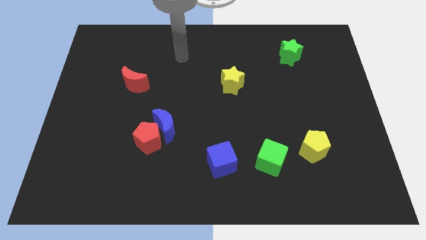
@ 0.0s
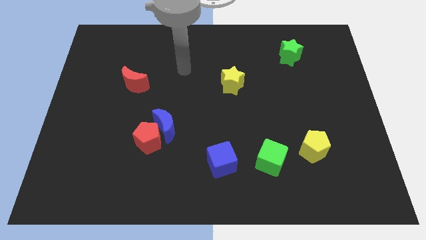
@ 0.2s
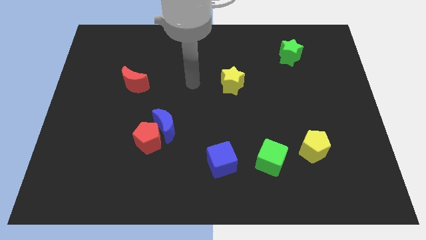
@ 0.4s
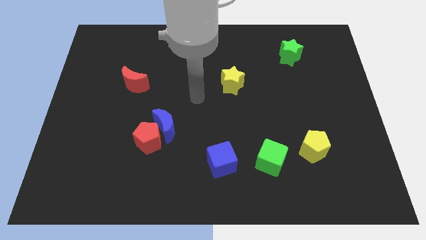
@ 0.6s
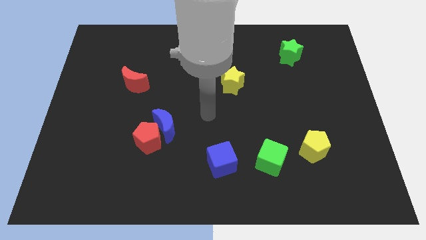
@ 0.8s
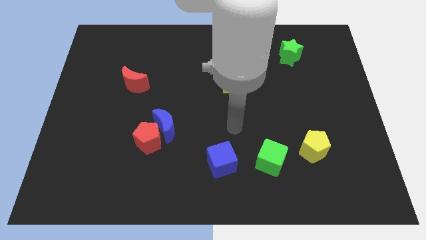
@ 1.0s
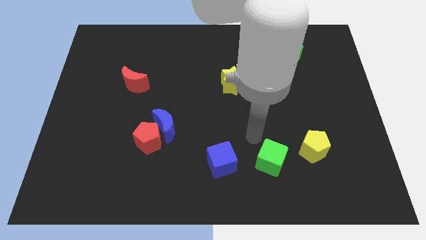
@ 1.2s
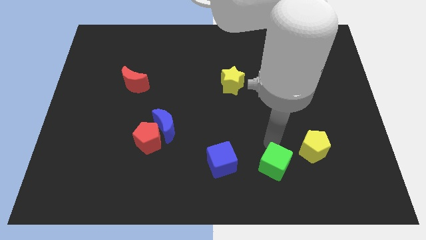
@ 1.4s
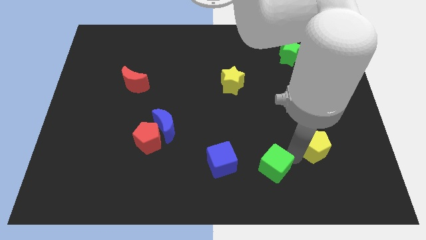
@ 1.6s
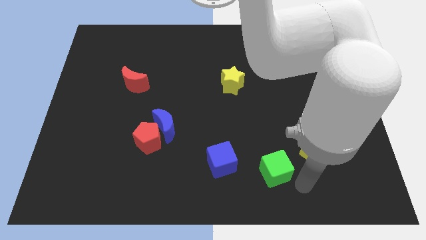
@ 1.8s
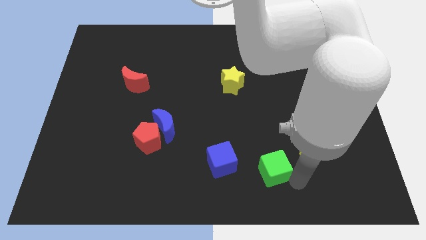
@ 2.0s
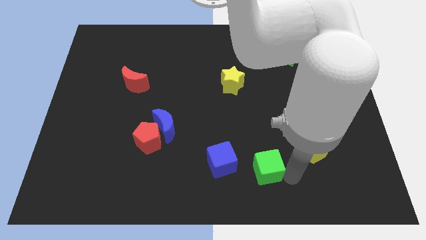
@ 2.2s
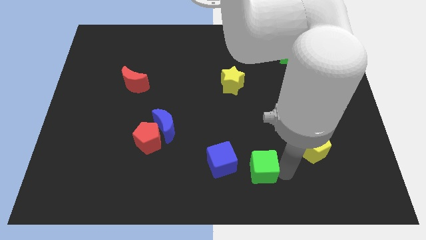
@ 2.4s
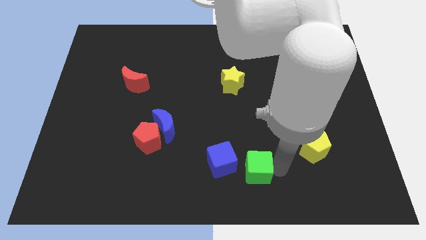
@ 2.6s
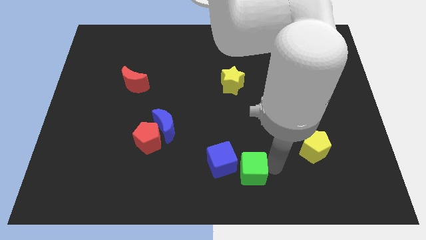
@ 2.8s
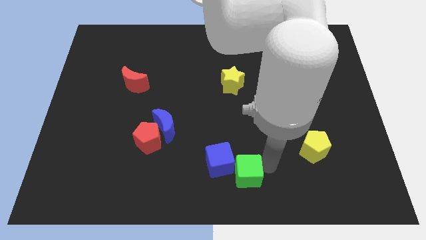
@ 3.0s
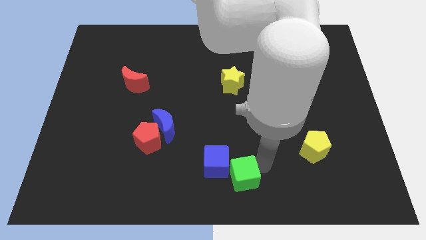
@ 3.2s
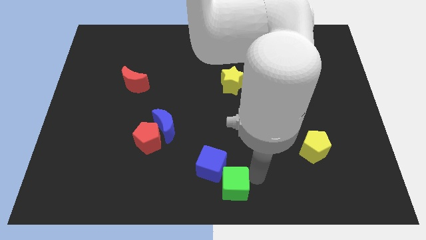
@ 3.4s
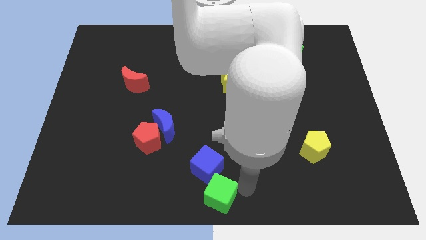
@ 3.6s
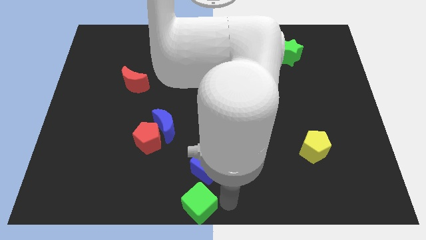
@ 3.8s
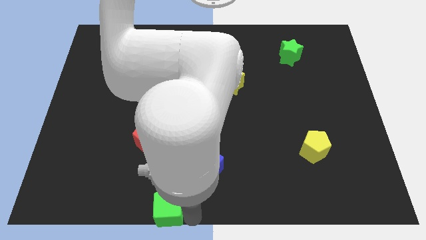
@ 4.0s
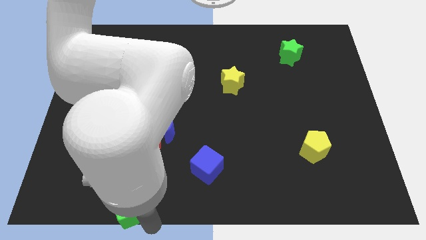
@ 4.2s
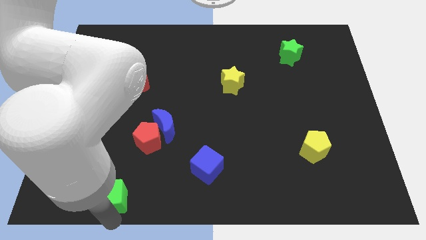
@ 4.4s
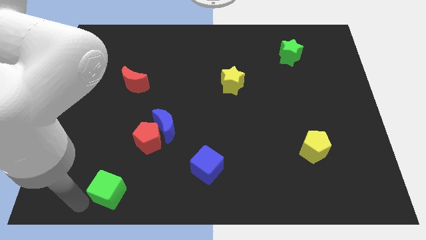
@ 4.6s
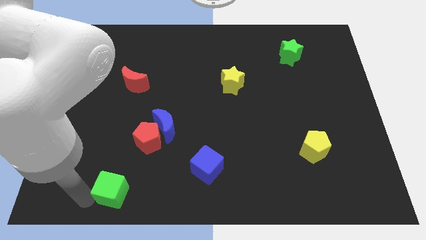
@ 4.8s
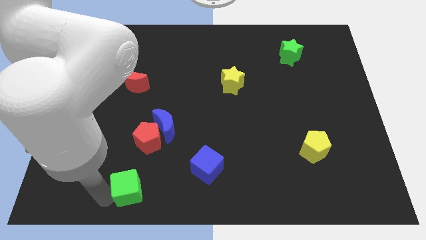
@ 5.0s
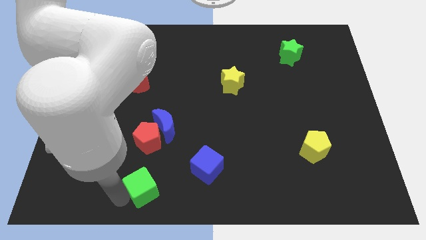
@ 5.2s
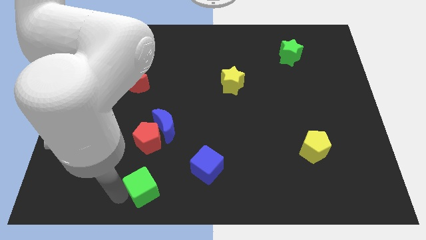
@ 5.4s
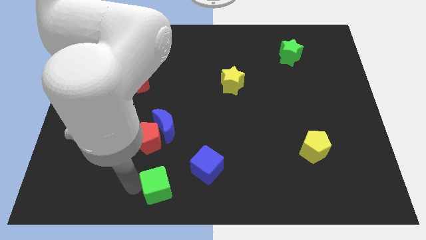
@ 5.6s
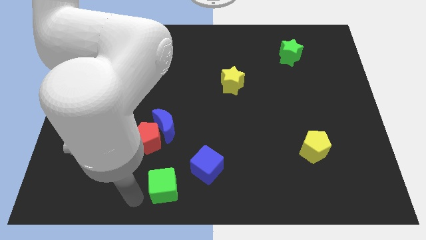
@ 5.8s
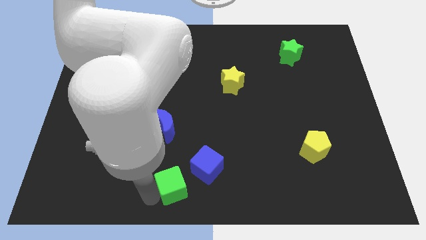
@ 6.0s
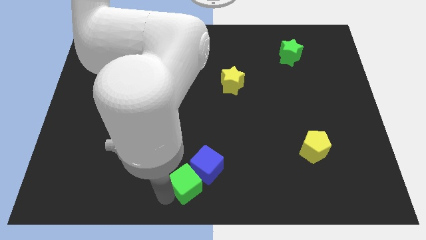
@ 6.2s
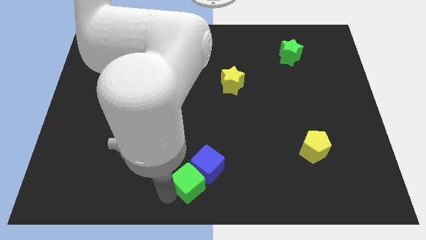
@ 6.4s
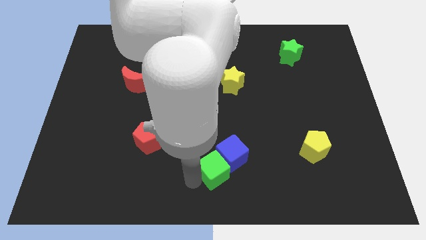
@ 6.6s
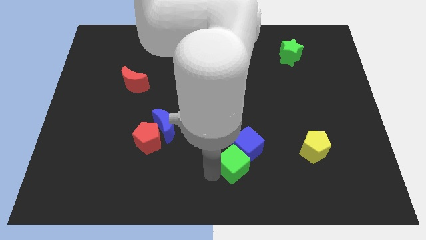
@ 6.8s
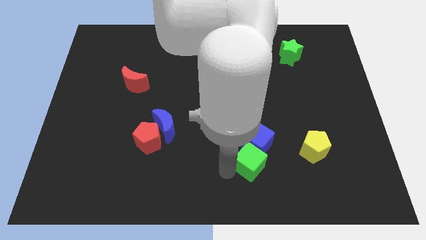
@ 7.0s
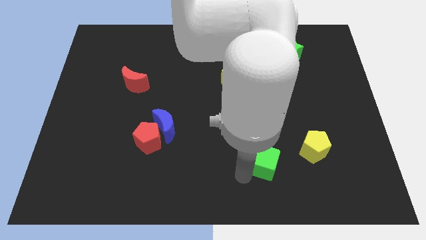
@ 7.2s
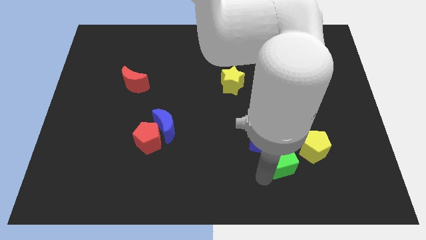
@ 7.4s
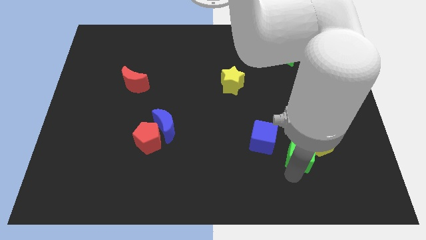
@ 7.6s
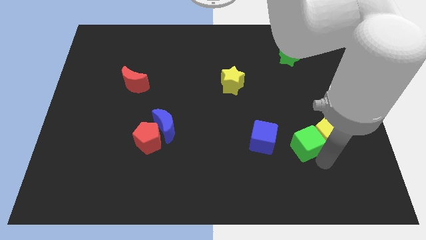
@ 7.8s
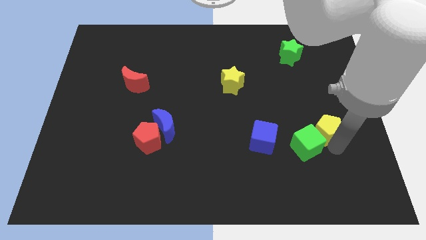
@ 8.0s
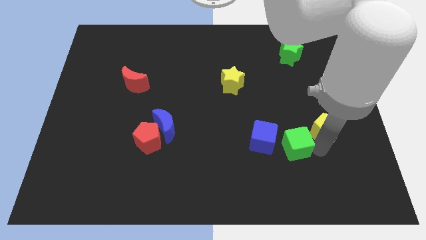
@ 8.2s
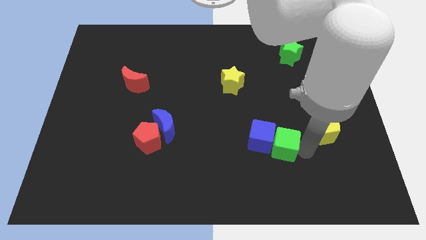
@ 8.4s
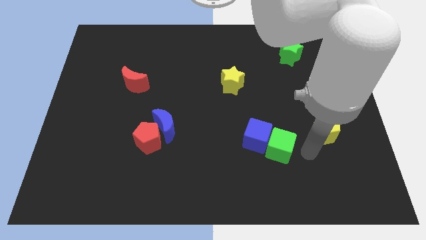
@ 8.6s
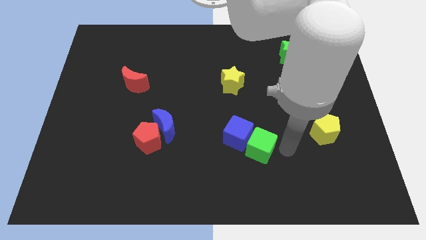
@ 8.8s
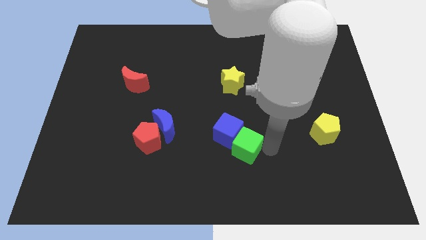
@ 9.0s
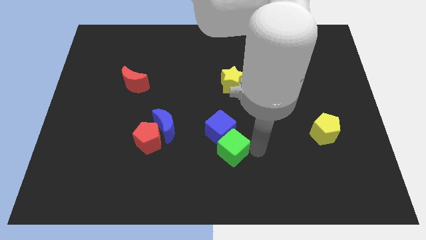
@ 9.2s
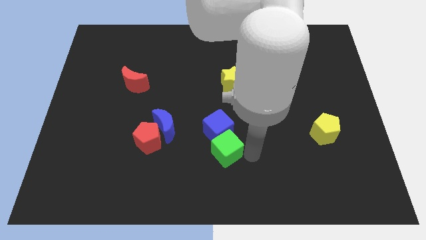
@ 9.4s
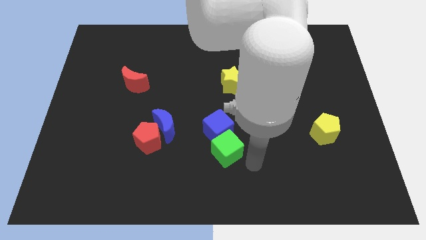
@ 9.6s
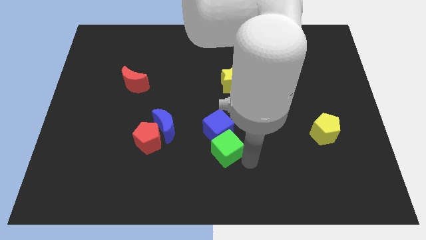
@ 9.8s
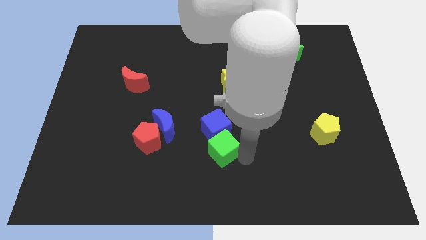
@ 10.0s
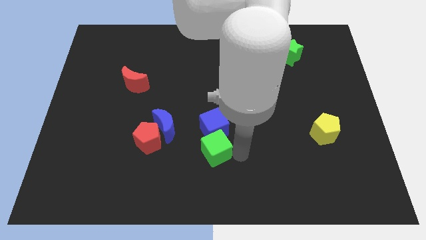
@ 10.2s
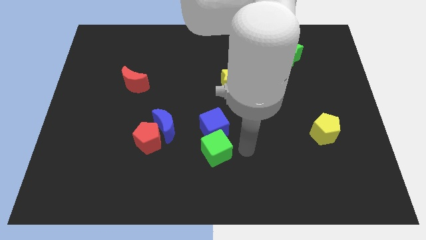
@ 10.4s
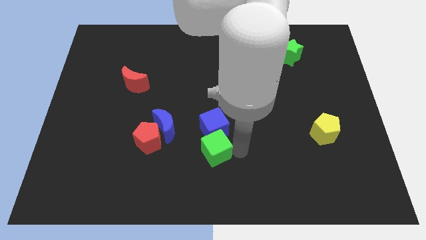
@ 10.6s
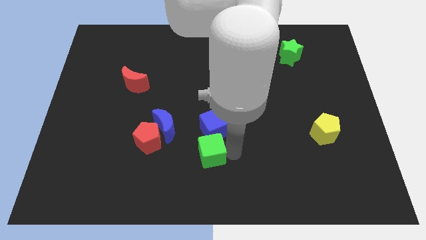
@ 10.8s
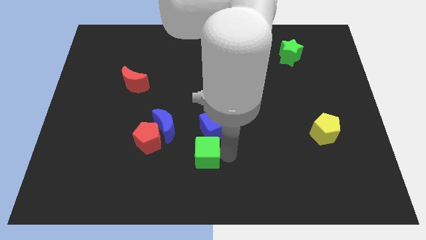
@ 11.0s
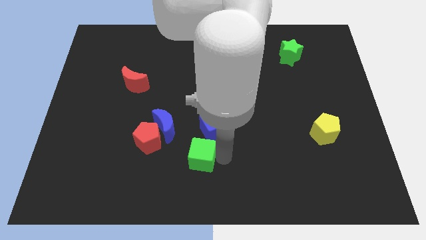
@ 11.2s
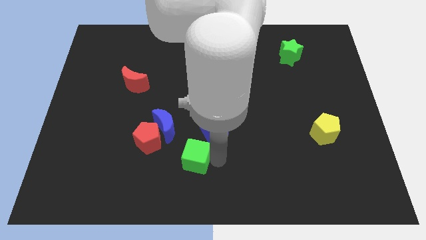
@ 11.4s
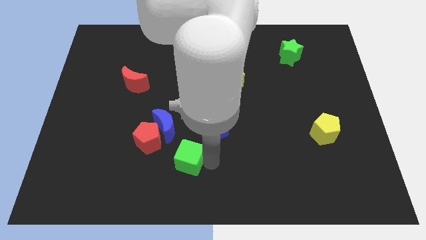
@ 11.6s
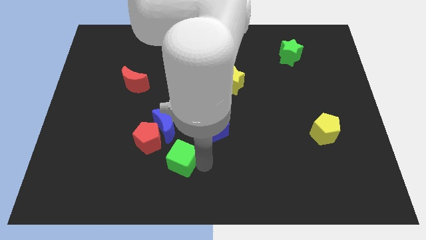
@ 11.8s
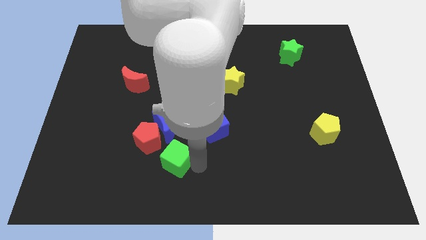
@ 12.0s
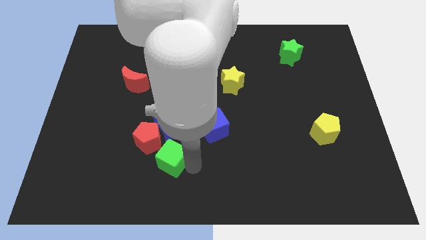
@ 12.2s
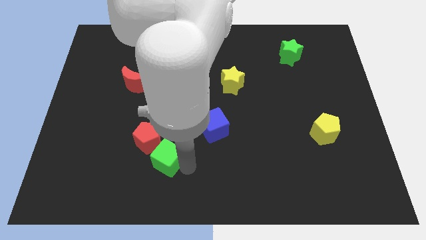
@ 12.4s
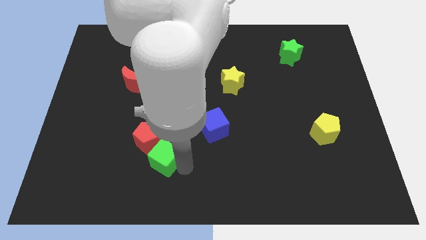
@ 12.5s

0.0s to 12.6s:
push the green cube next to the red pentagon
